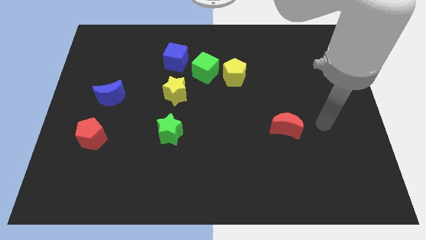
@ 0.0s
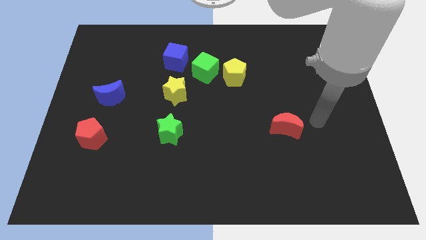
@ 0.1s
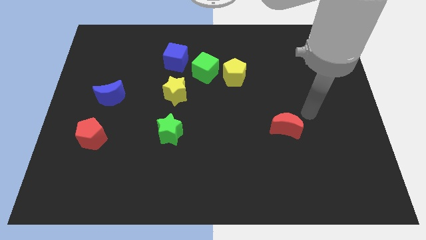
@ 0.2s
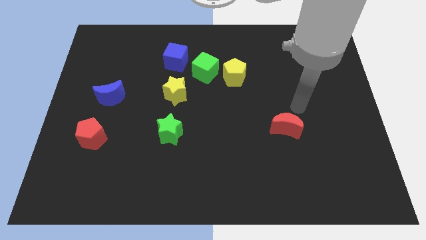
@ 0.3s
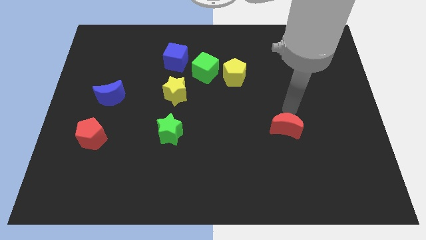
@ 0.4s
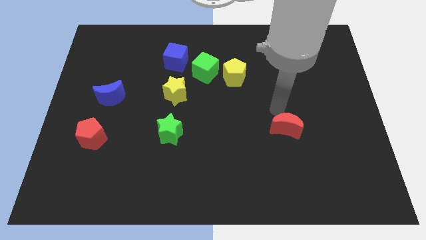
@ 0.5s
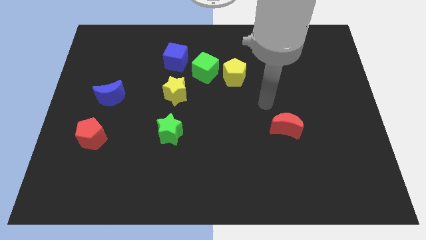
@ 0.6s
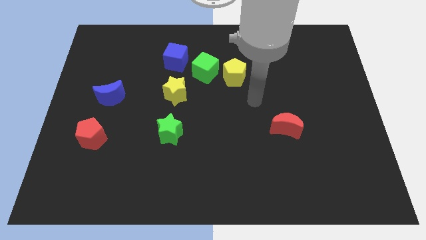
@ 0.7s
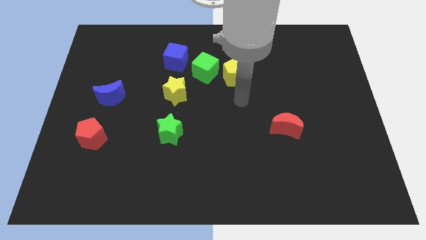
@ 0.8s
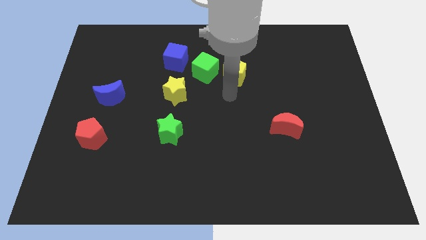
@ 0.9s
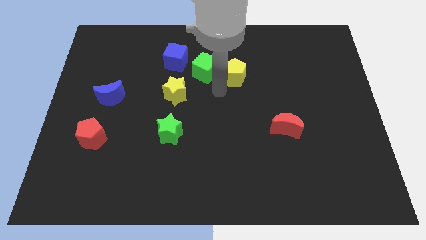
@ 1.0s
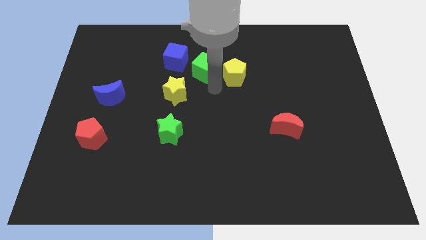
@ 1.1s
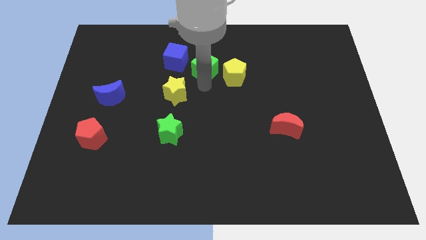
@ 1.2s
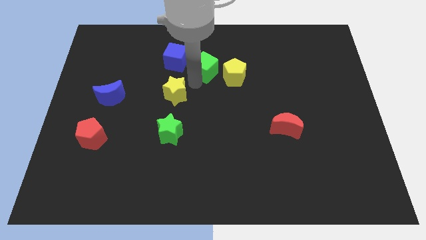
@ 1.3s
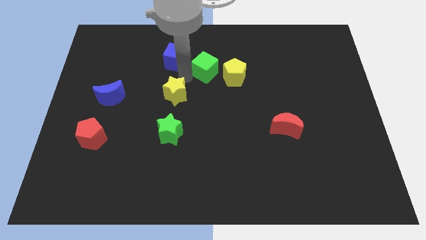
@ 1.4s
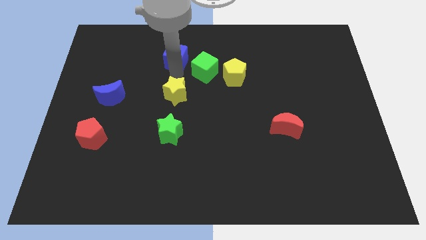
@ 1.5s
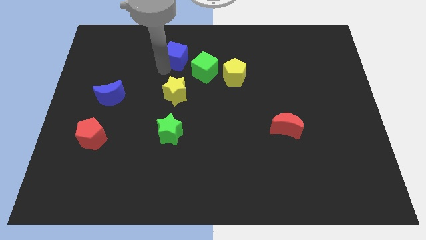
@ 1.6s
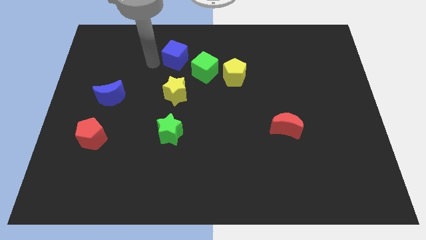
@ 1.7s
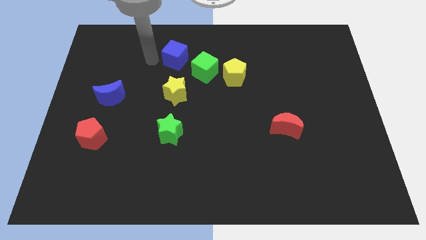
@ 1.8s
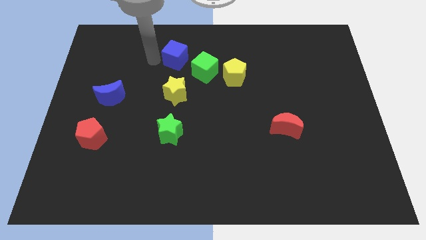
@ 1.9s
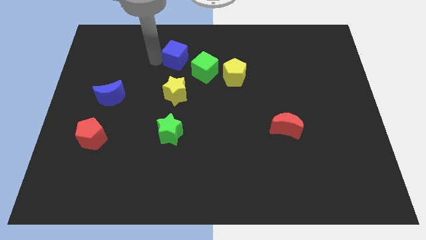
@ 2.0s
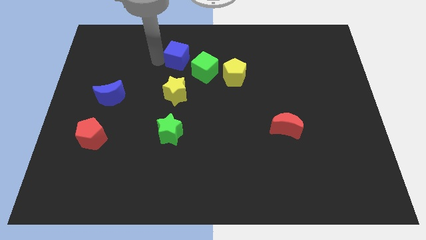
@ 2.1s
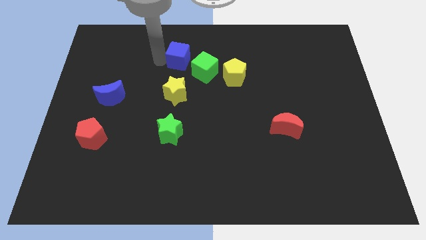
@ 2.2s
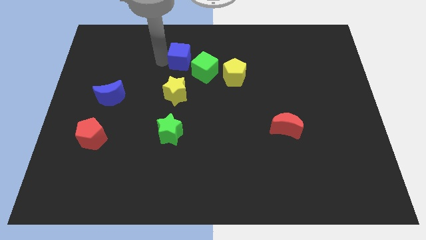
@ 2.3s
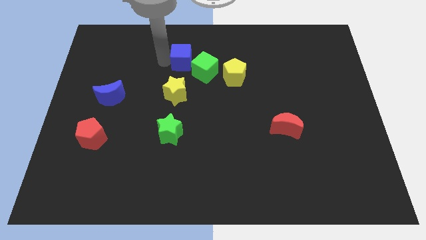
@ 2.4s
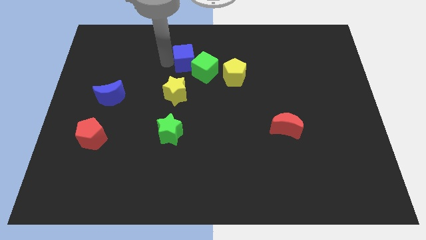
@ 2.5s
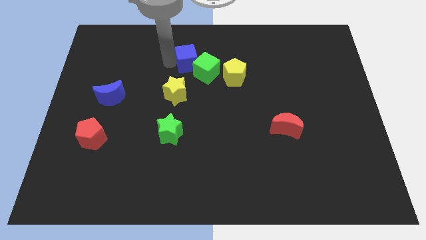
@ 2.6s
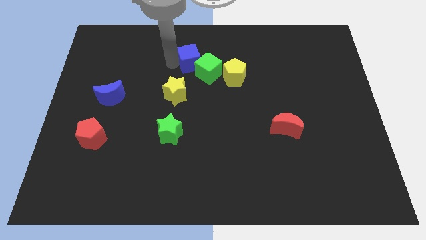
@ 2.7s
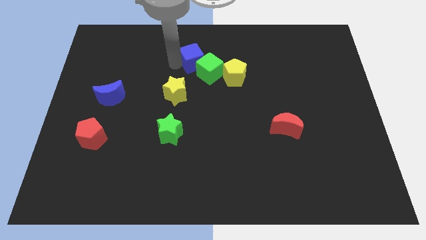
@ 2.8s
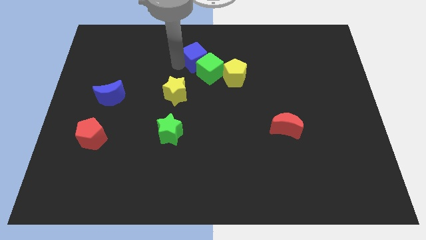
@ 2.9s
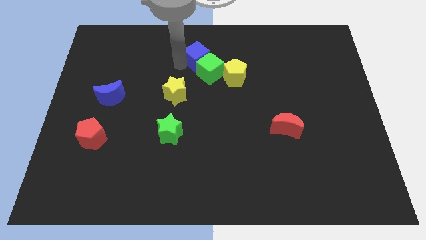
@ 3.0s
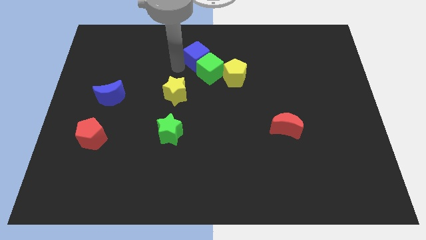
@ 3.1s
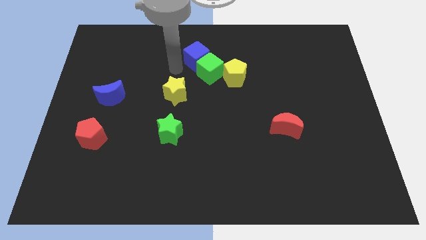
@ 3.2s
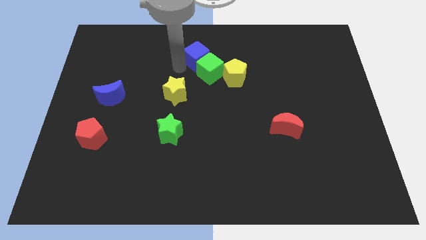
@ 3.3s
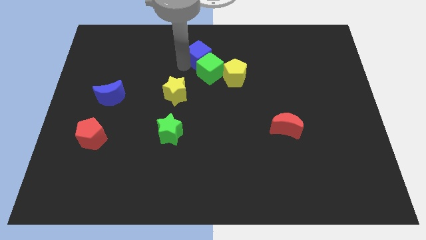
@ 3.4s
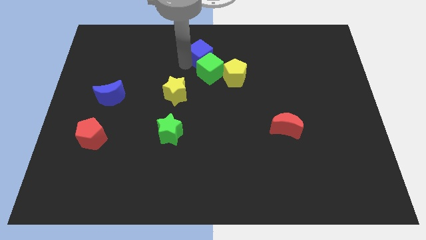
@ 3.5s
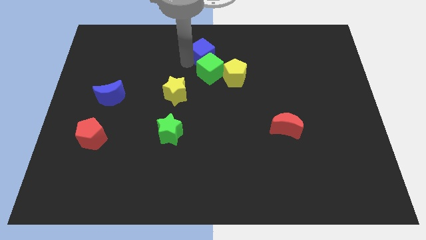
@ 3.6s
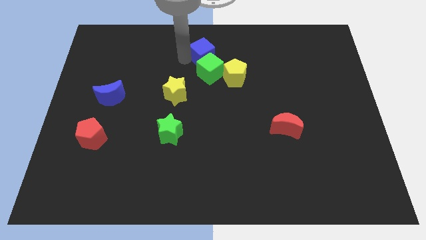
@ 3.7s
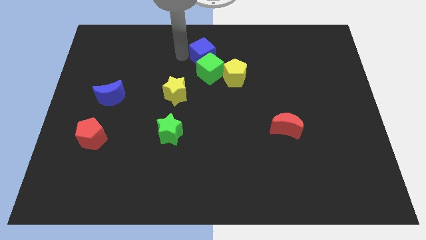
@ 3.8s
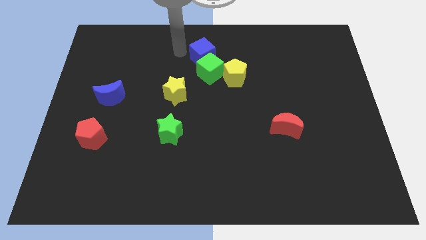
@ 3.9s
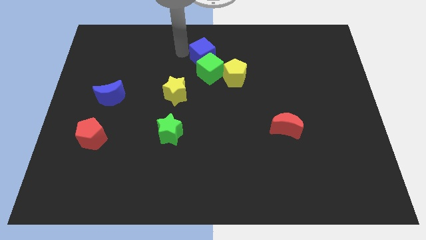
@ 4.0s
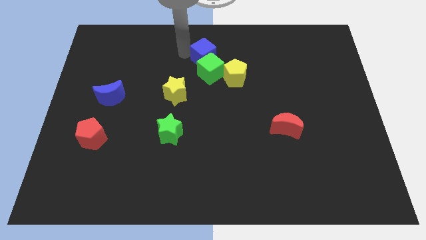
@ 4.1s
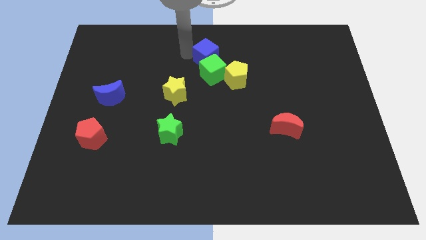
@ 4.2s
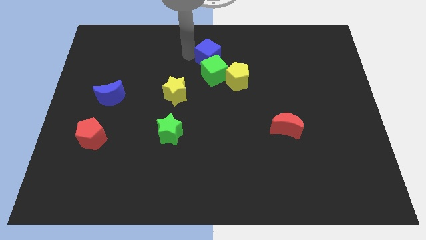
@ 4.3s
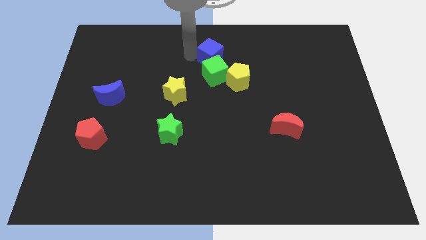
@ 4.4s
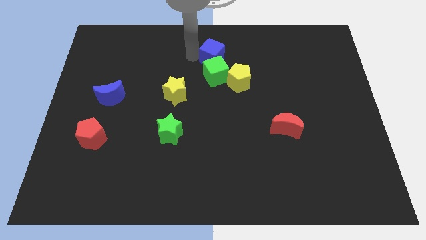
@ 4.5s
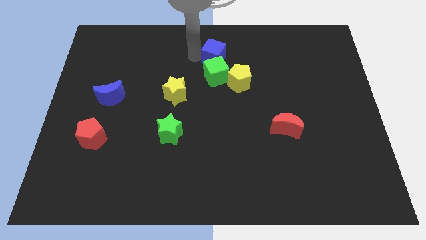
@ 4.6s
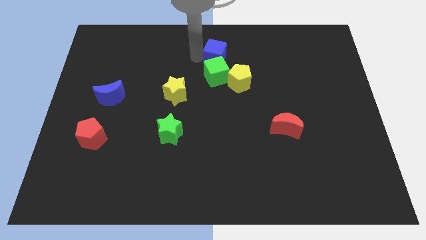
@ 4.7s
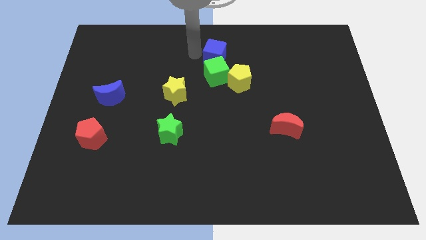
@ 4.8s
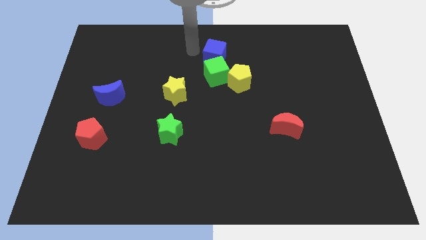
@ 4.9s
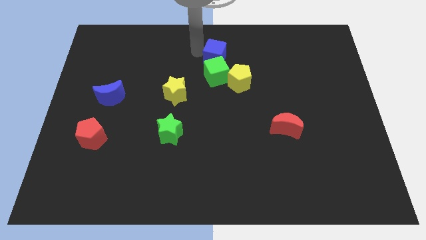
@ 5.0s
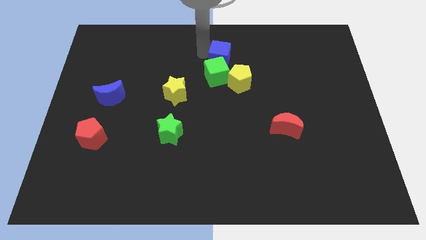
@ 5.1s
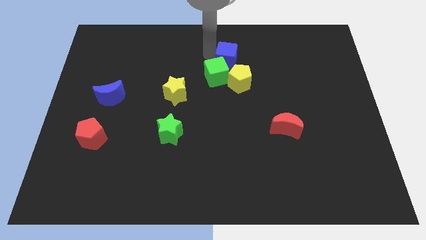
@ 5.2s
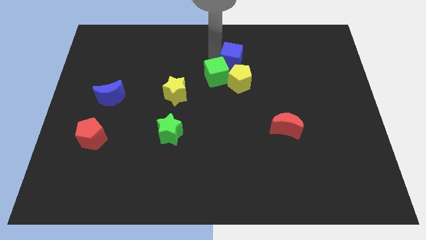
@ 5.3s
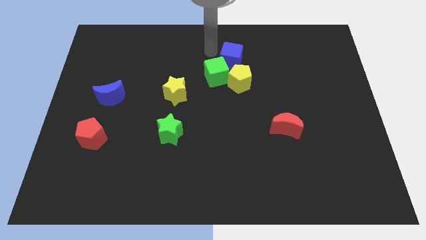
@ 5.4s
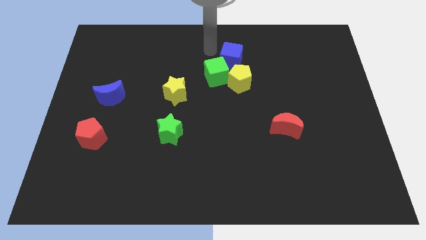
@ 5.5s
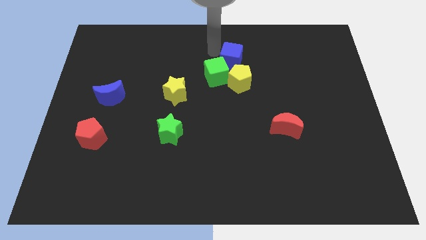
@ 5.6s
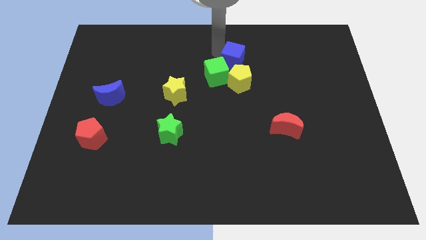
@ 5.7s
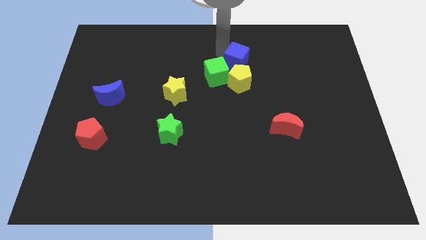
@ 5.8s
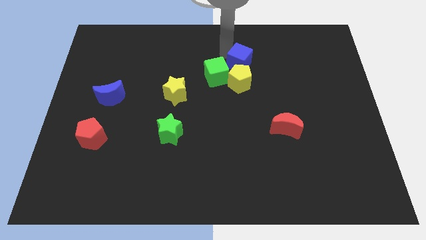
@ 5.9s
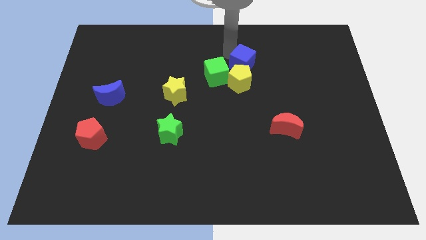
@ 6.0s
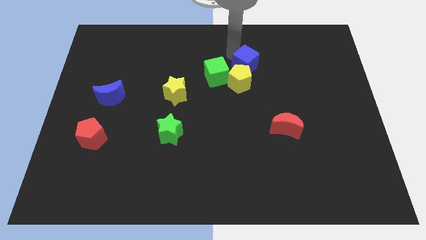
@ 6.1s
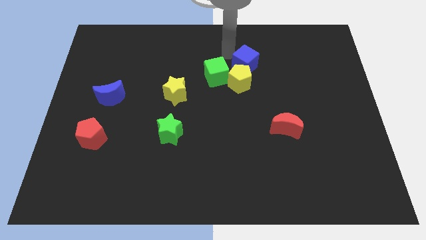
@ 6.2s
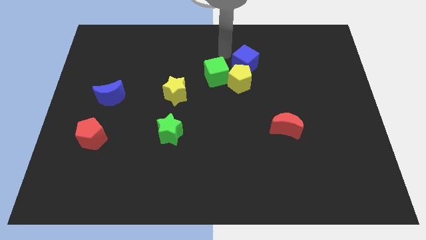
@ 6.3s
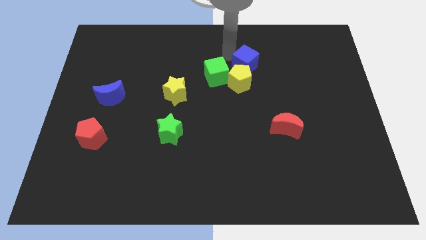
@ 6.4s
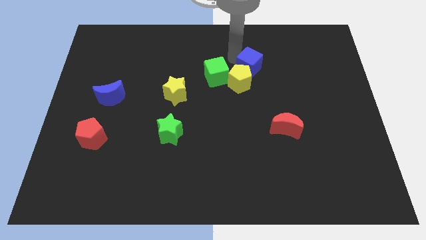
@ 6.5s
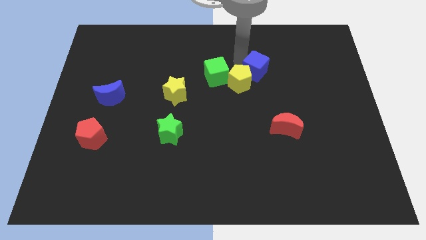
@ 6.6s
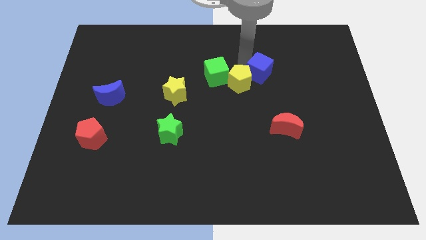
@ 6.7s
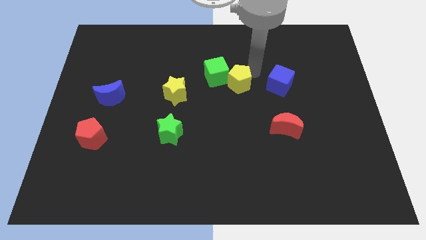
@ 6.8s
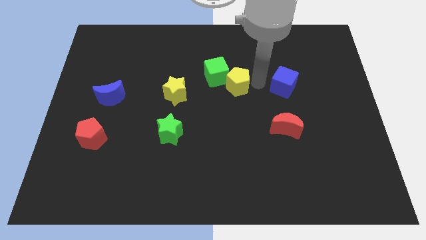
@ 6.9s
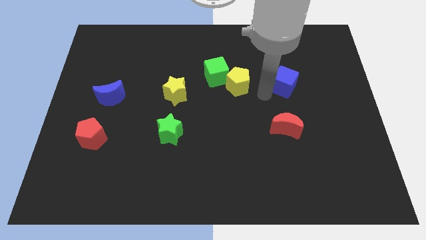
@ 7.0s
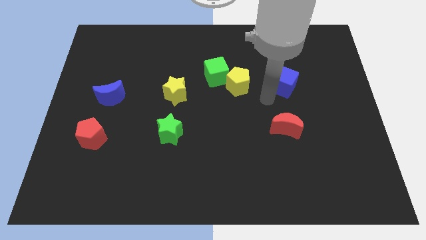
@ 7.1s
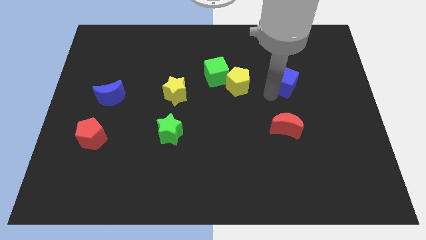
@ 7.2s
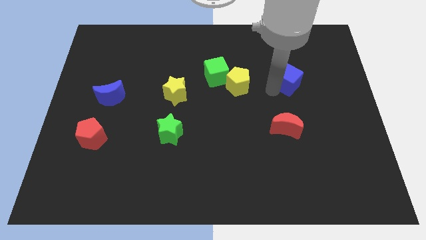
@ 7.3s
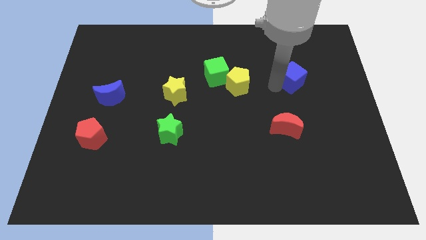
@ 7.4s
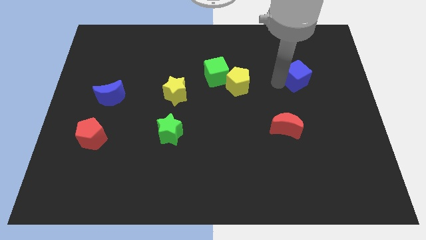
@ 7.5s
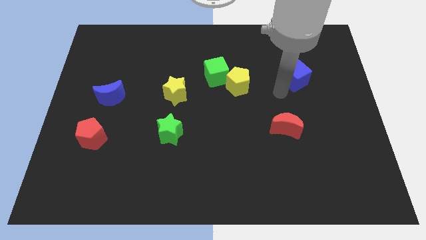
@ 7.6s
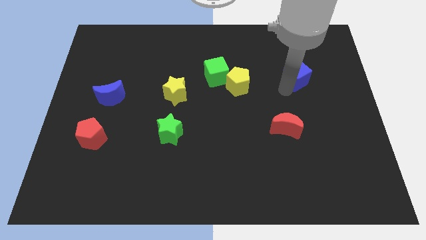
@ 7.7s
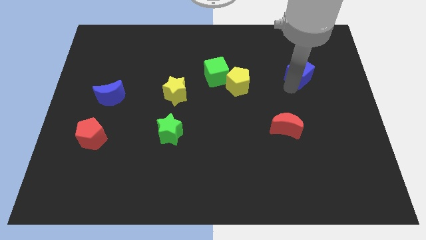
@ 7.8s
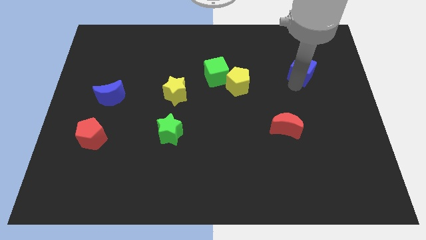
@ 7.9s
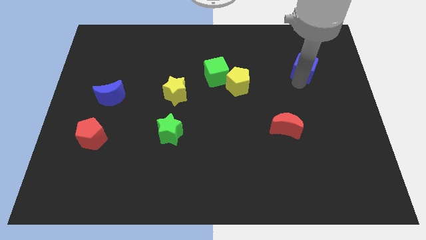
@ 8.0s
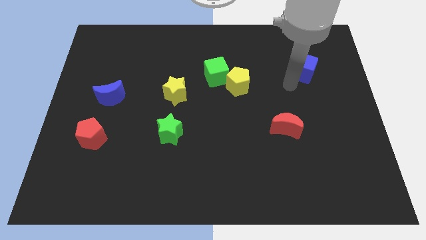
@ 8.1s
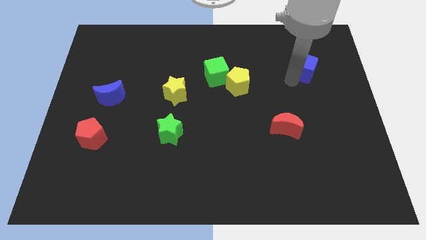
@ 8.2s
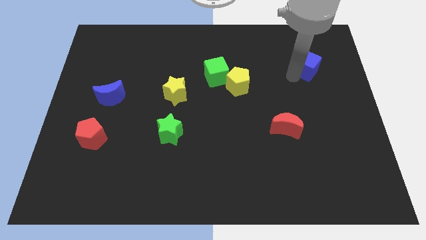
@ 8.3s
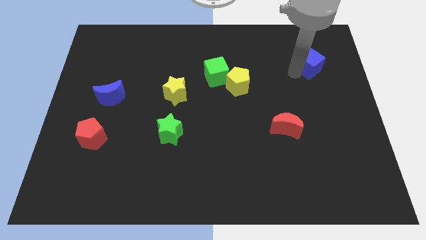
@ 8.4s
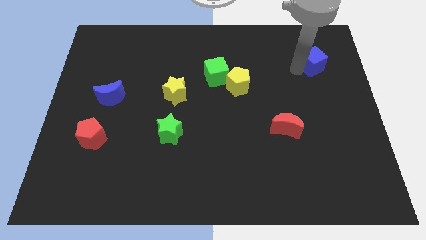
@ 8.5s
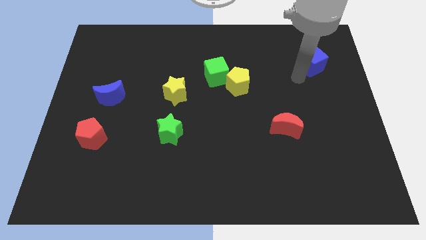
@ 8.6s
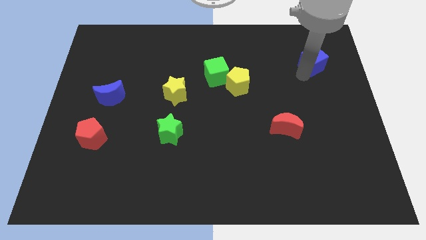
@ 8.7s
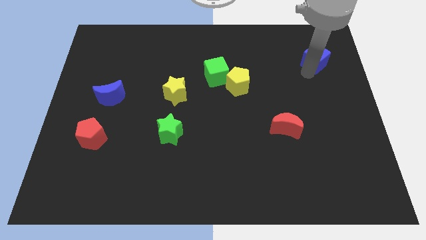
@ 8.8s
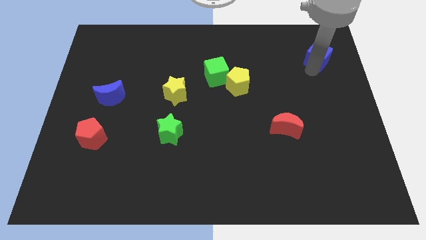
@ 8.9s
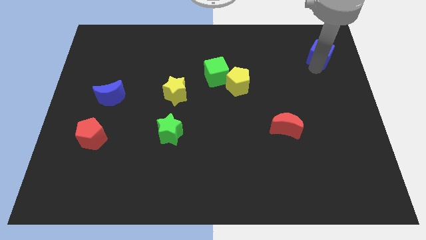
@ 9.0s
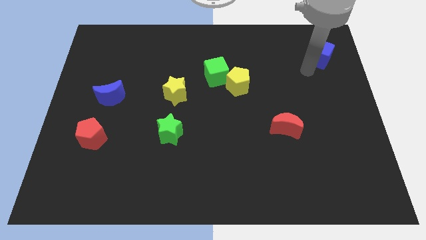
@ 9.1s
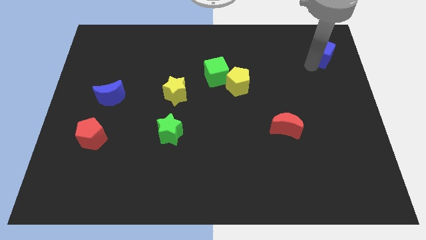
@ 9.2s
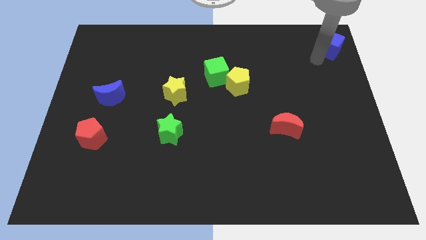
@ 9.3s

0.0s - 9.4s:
move the blue cube to the top right corner
